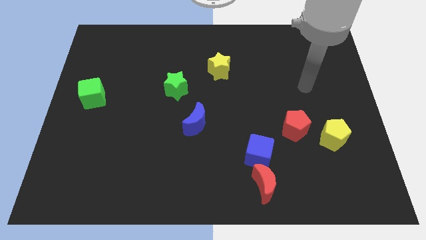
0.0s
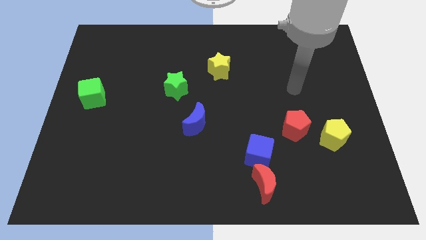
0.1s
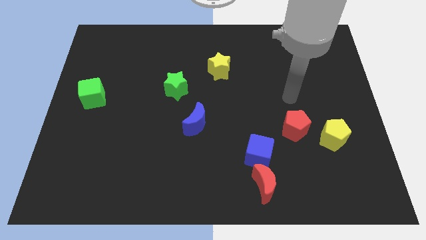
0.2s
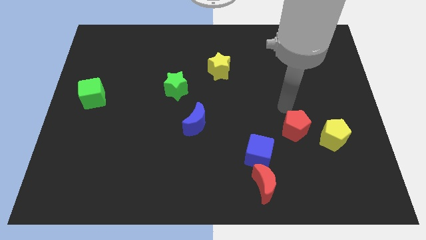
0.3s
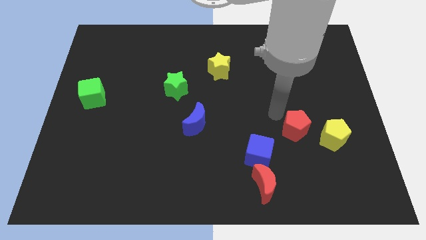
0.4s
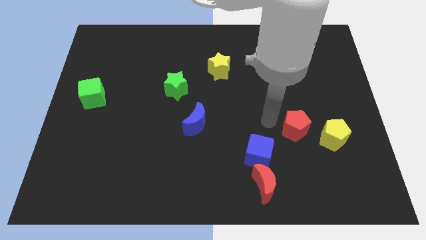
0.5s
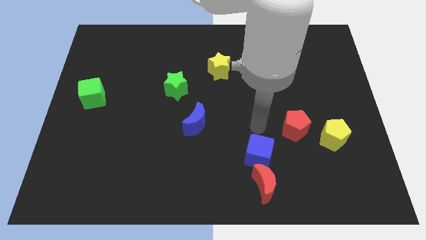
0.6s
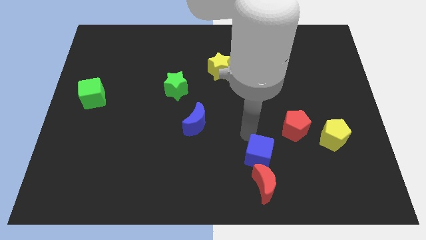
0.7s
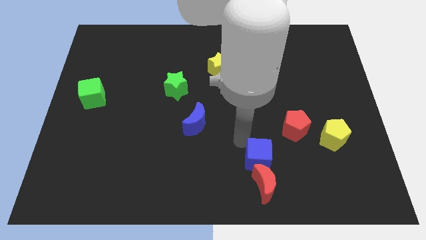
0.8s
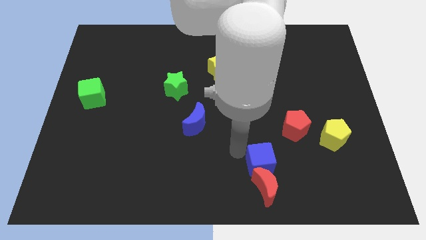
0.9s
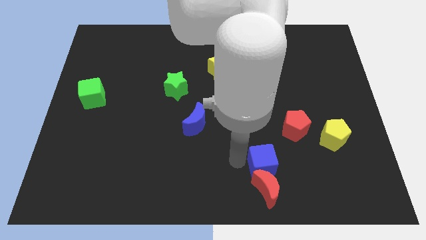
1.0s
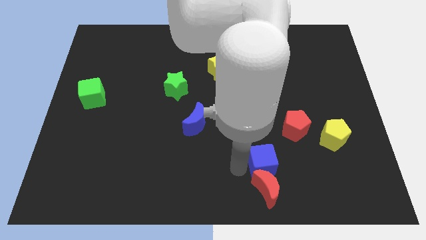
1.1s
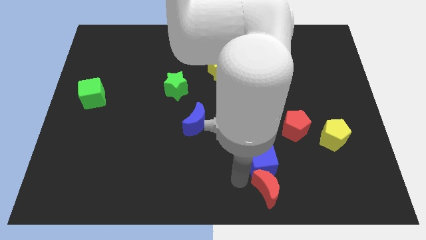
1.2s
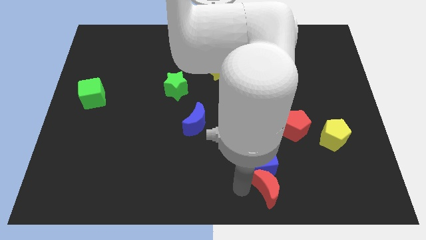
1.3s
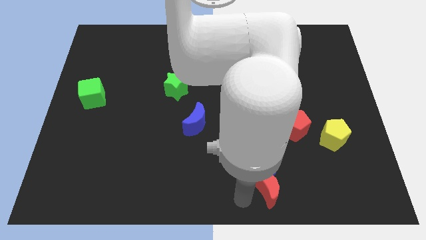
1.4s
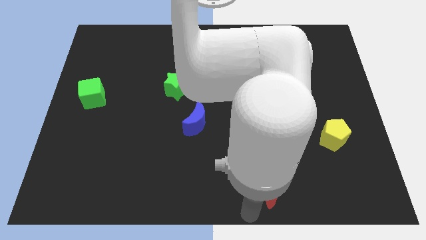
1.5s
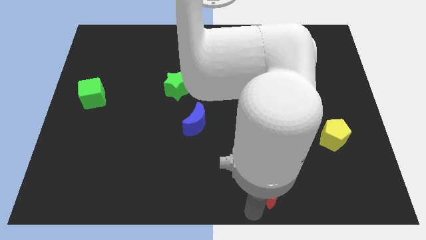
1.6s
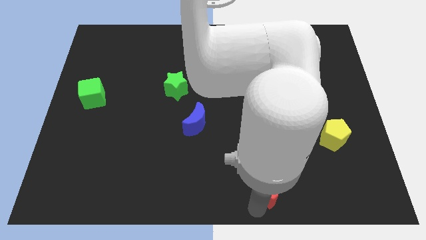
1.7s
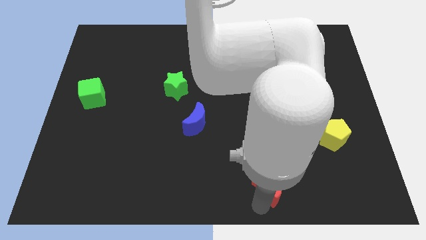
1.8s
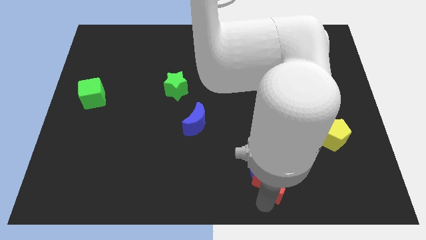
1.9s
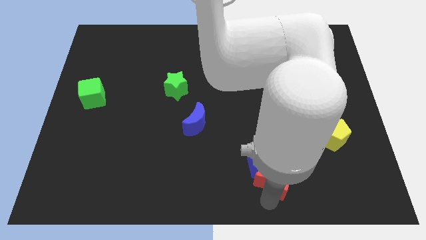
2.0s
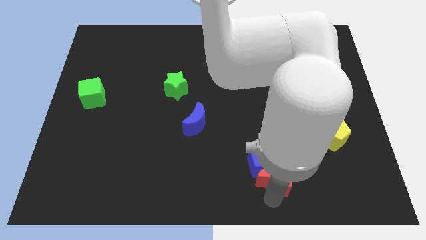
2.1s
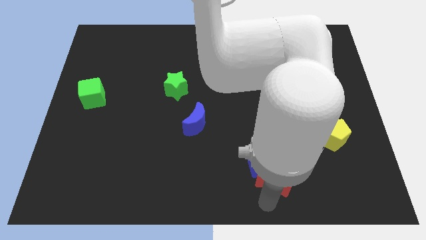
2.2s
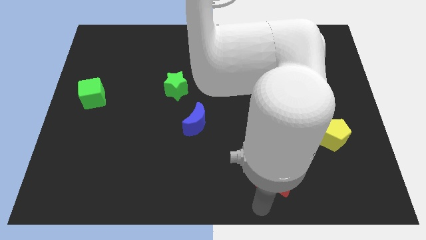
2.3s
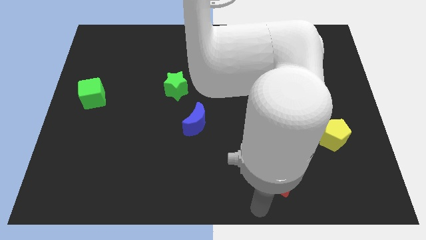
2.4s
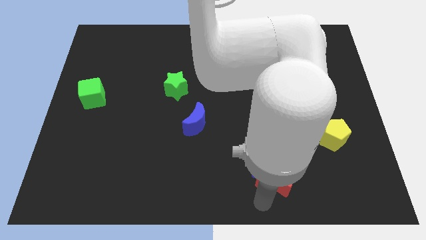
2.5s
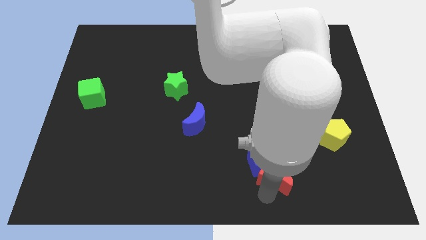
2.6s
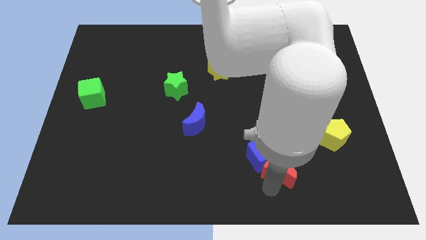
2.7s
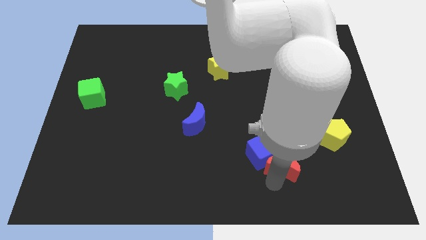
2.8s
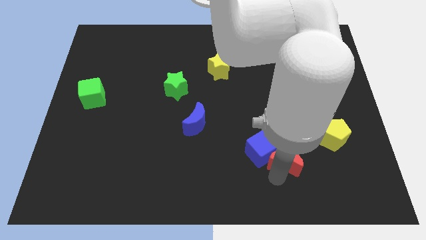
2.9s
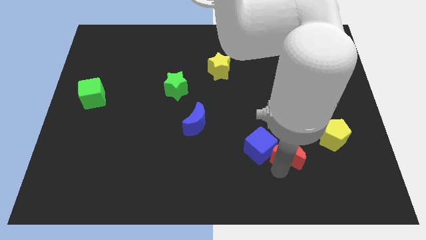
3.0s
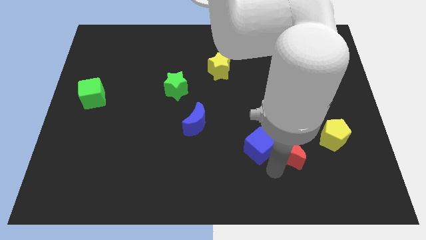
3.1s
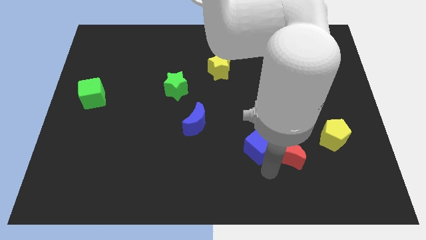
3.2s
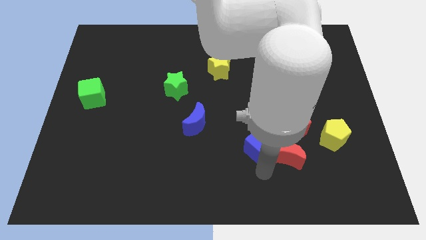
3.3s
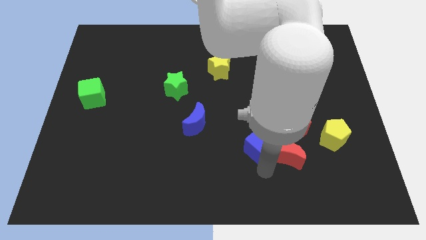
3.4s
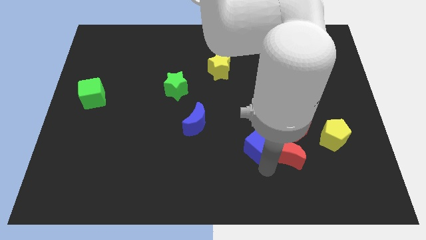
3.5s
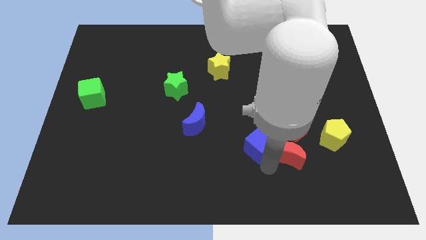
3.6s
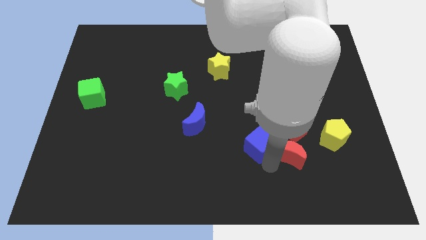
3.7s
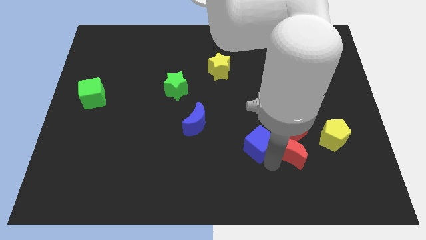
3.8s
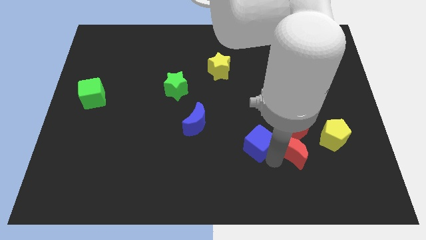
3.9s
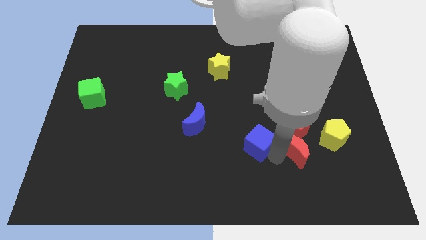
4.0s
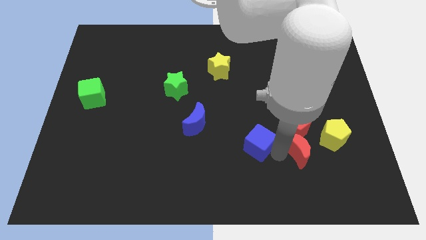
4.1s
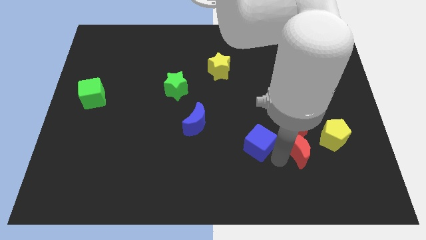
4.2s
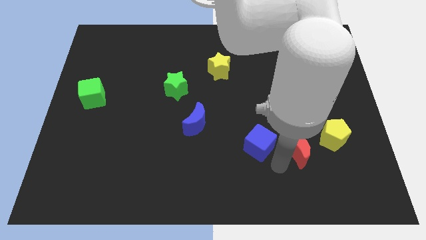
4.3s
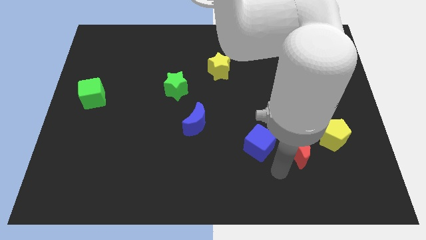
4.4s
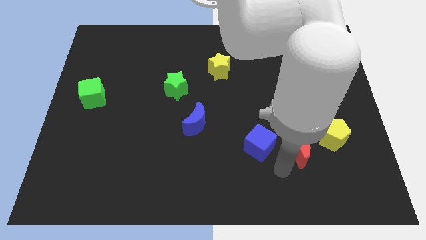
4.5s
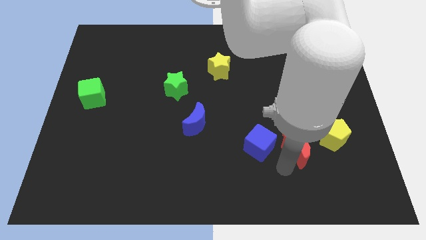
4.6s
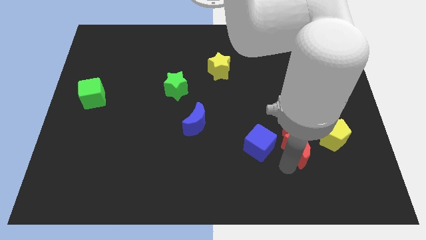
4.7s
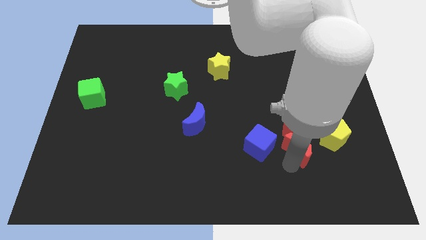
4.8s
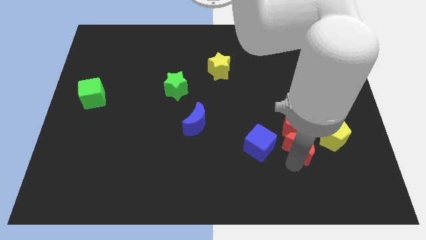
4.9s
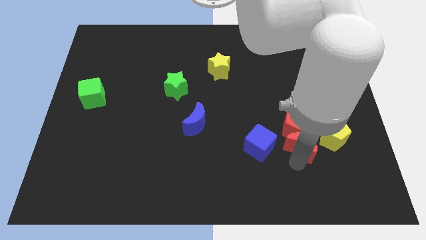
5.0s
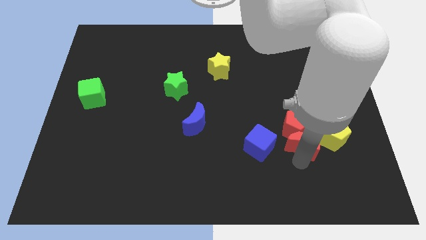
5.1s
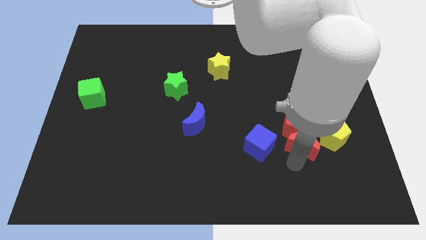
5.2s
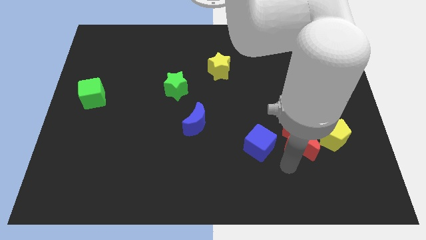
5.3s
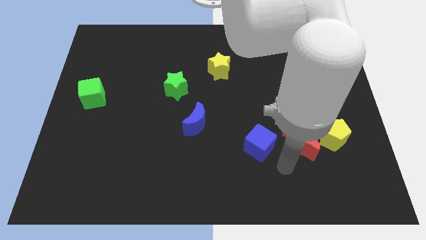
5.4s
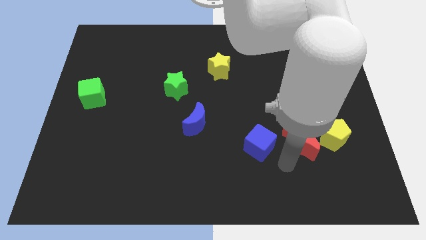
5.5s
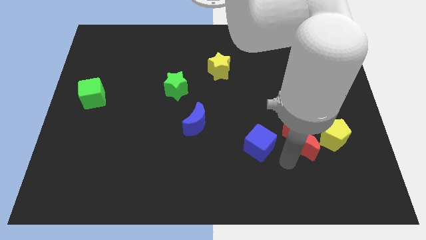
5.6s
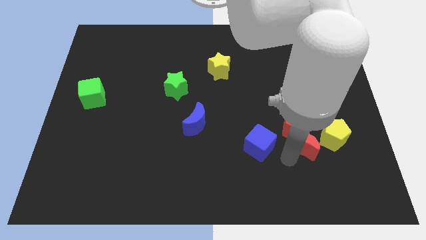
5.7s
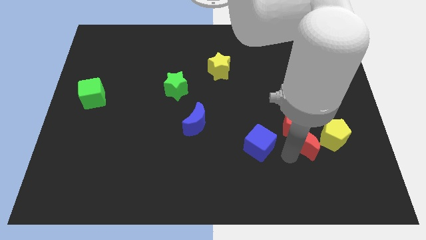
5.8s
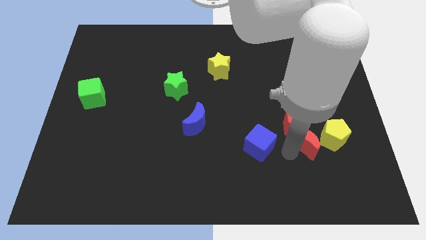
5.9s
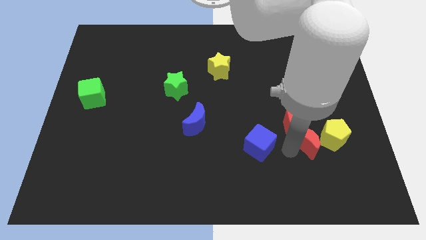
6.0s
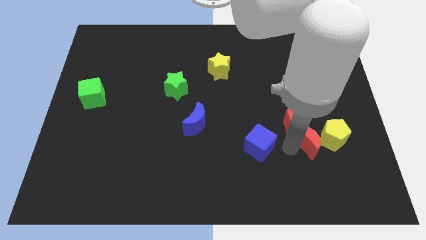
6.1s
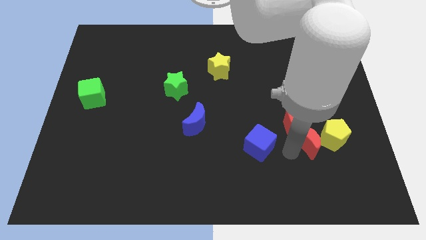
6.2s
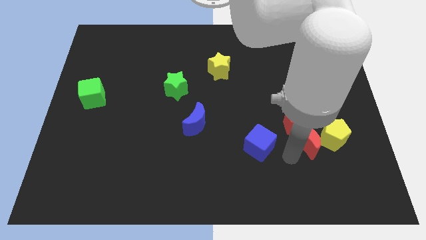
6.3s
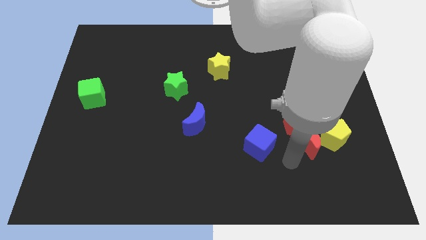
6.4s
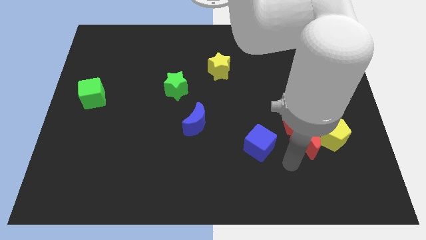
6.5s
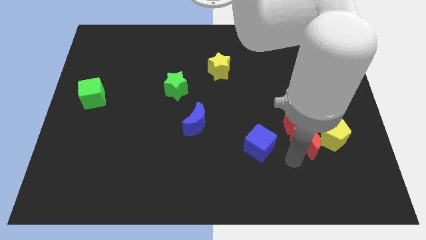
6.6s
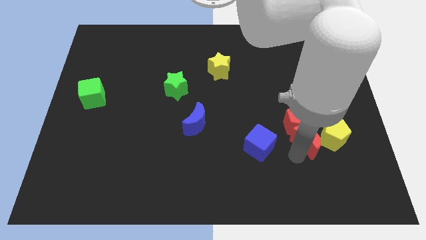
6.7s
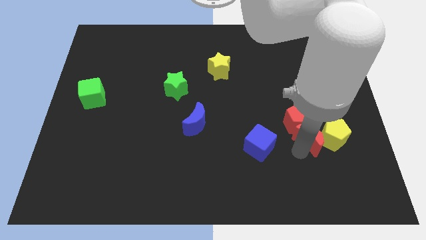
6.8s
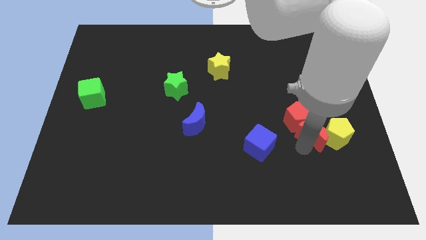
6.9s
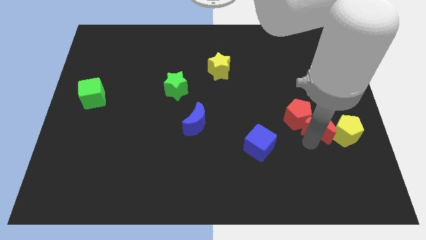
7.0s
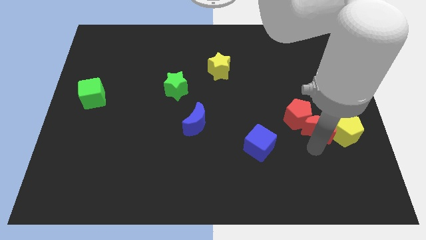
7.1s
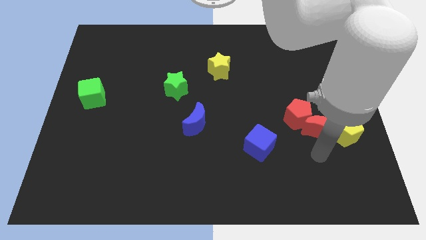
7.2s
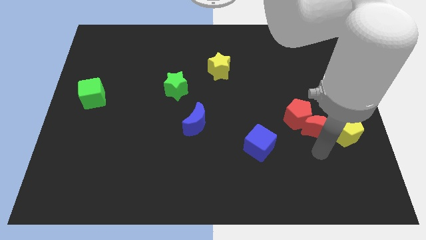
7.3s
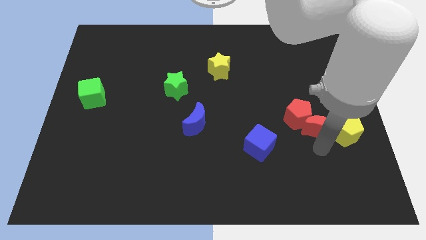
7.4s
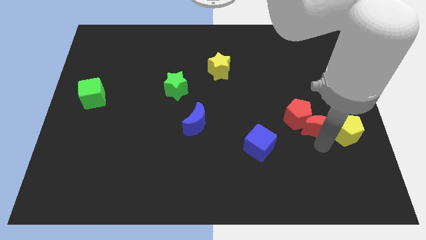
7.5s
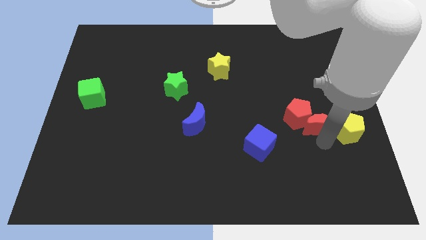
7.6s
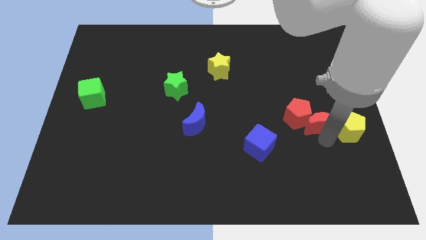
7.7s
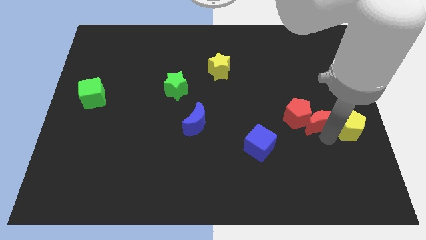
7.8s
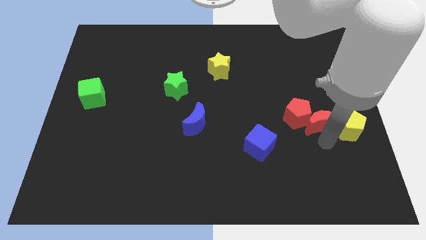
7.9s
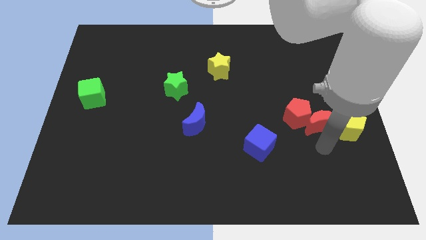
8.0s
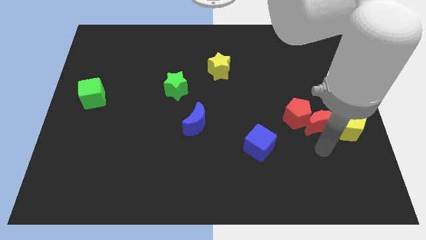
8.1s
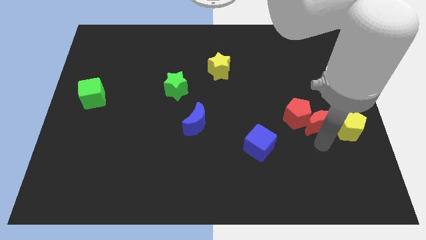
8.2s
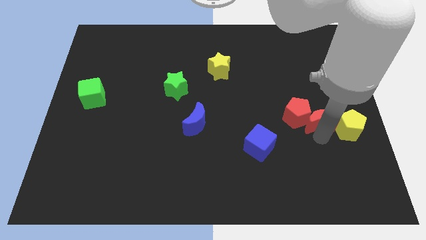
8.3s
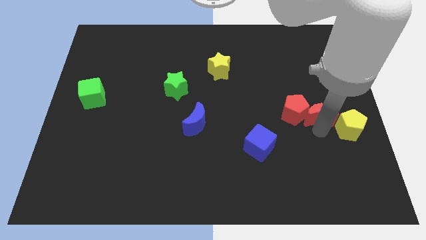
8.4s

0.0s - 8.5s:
slide the red moon to the top right of the red pentagon
